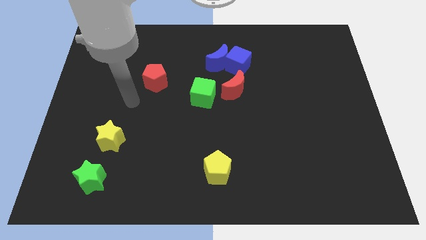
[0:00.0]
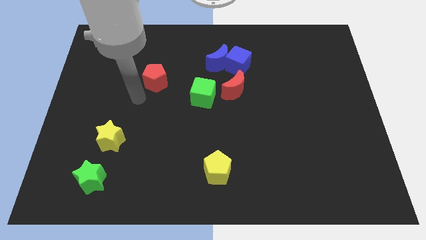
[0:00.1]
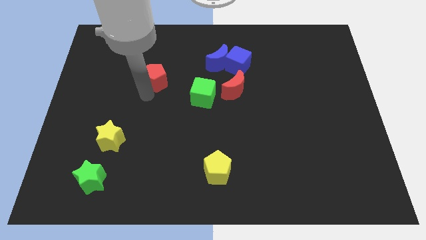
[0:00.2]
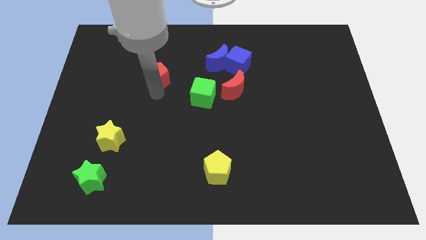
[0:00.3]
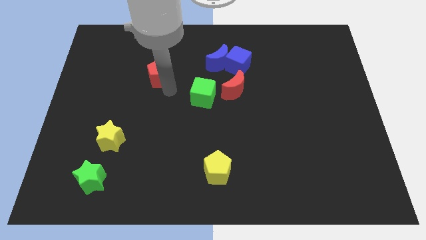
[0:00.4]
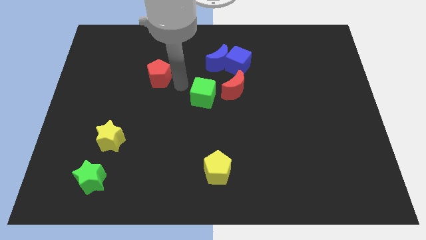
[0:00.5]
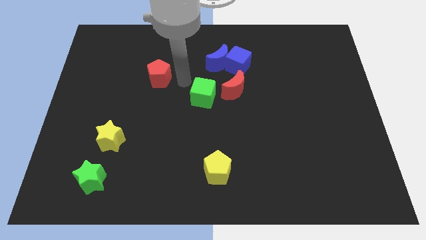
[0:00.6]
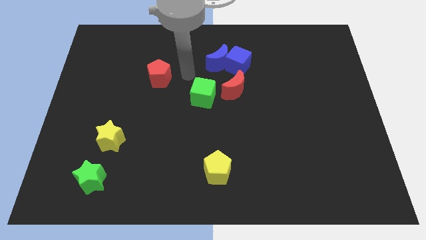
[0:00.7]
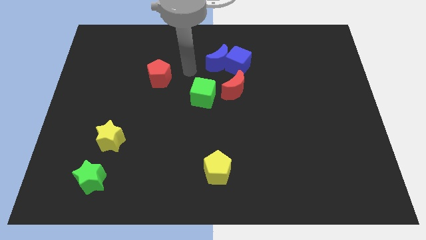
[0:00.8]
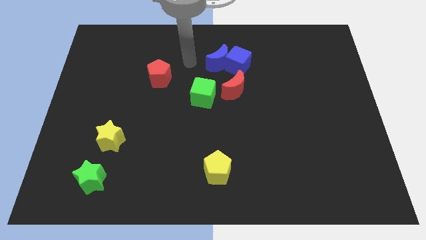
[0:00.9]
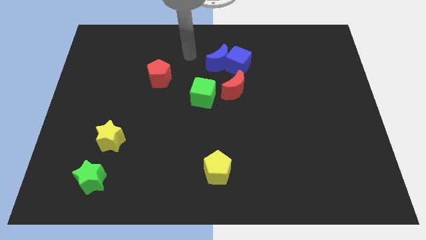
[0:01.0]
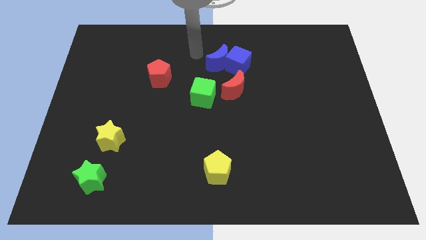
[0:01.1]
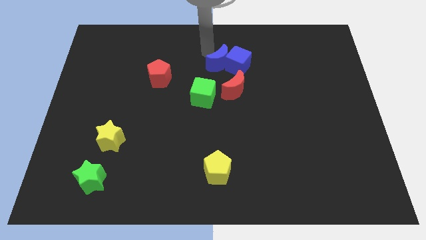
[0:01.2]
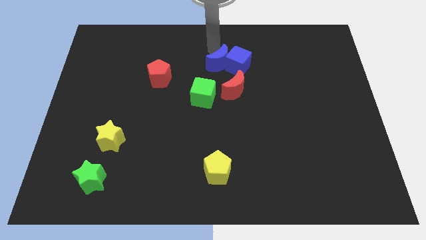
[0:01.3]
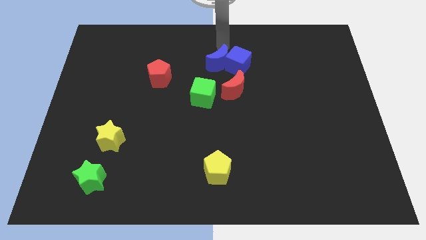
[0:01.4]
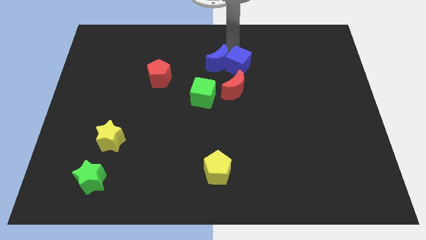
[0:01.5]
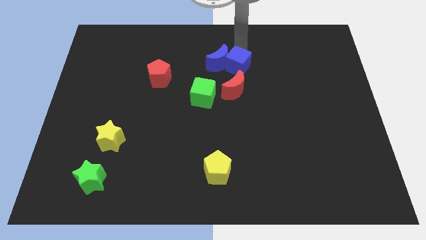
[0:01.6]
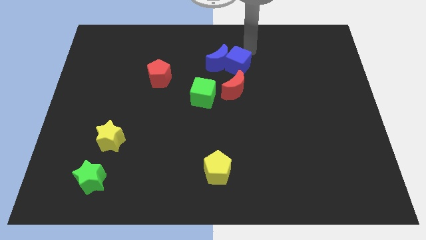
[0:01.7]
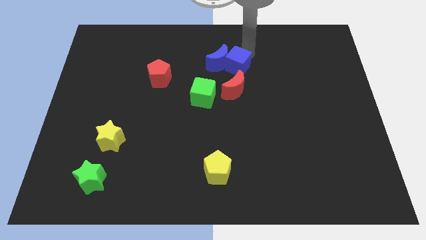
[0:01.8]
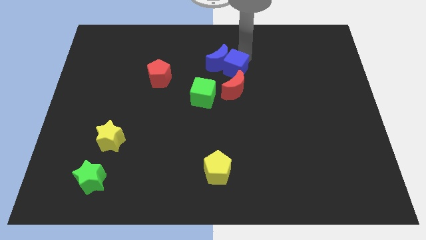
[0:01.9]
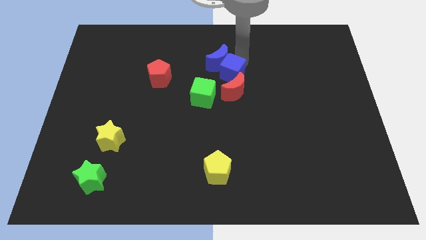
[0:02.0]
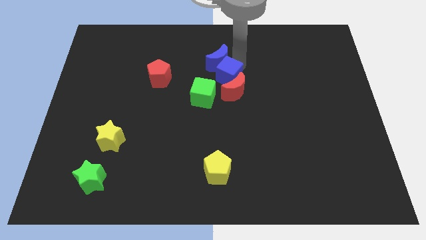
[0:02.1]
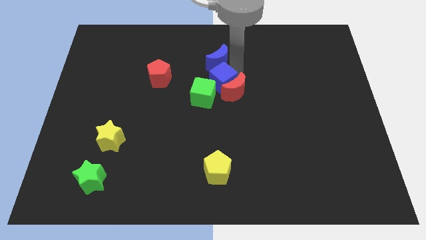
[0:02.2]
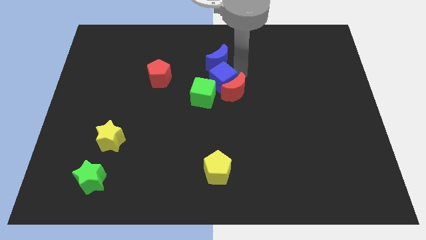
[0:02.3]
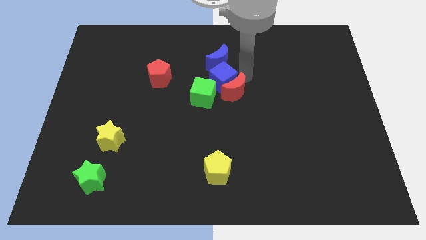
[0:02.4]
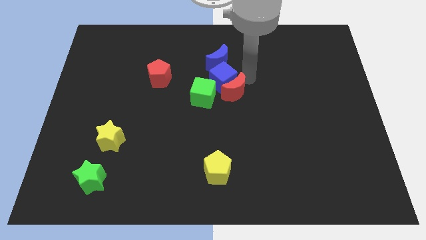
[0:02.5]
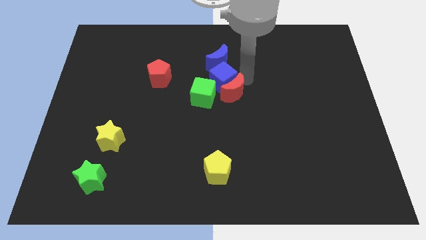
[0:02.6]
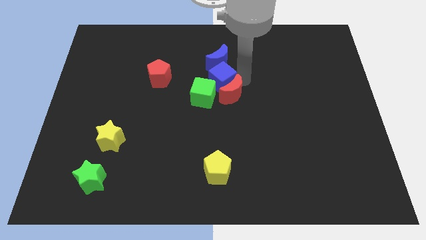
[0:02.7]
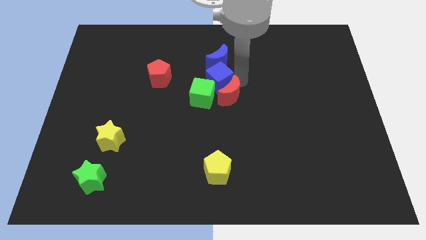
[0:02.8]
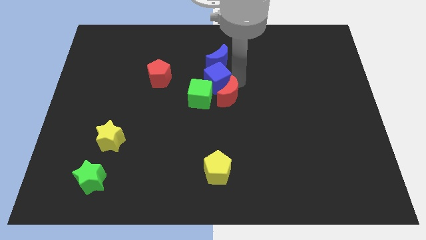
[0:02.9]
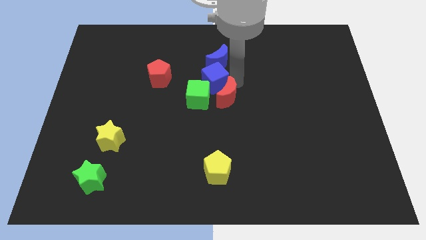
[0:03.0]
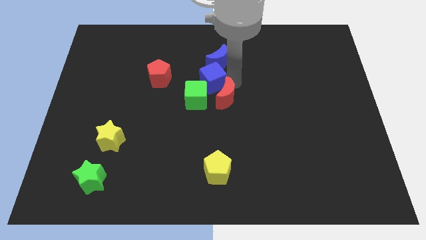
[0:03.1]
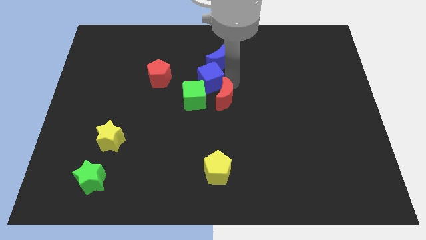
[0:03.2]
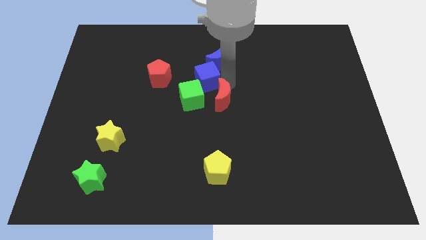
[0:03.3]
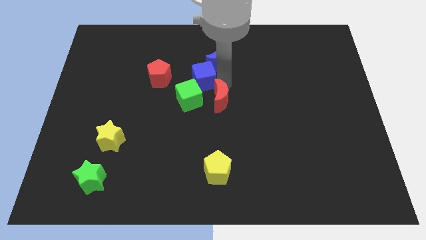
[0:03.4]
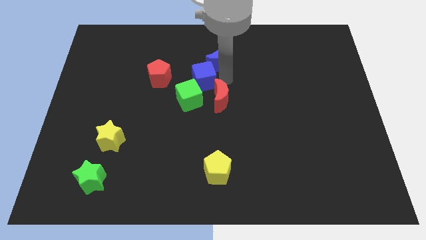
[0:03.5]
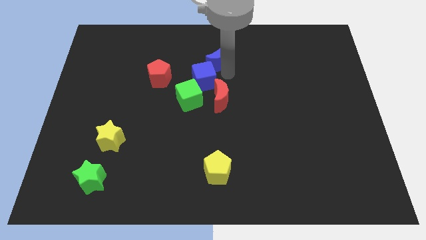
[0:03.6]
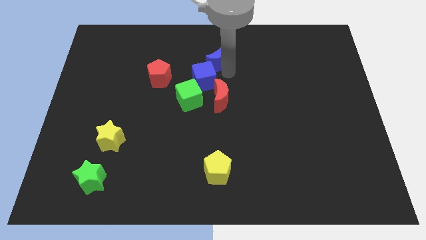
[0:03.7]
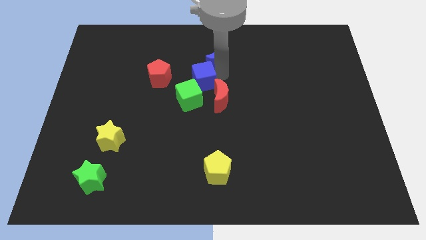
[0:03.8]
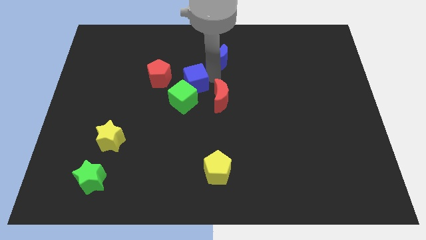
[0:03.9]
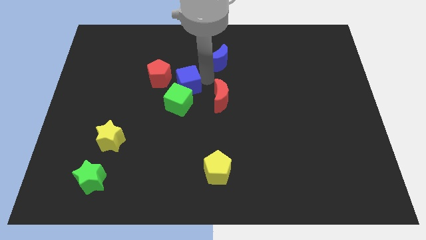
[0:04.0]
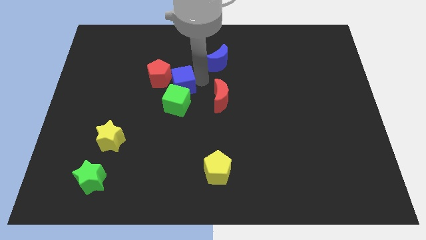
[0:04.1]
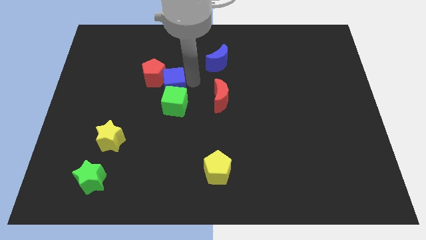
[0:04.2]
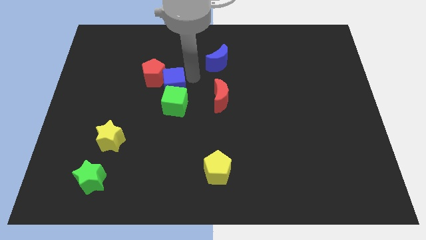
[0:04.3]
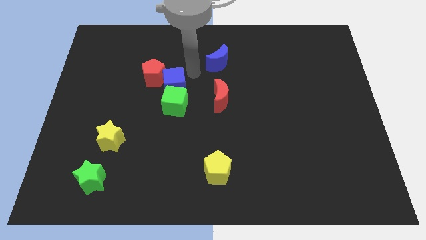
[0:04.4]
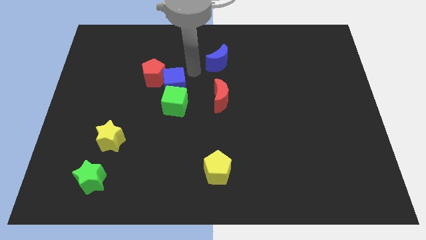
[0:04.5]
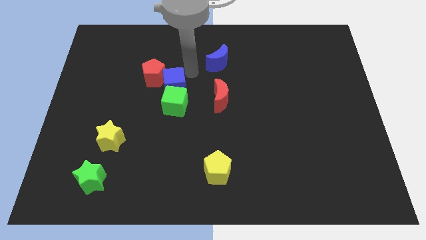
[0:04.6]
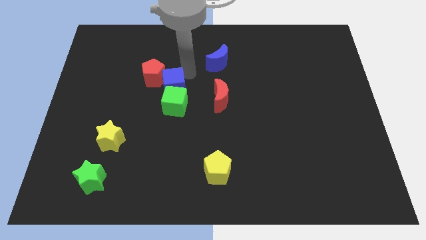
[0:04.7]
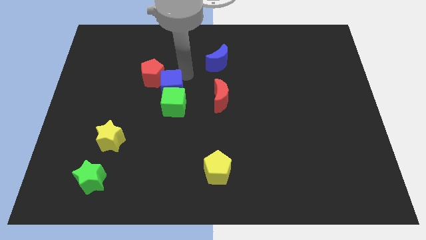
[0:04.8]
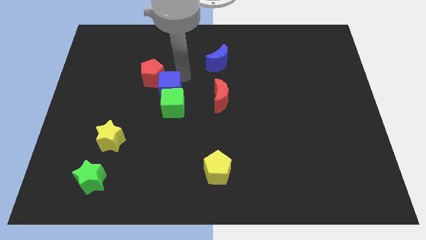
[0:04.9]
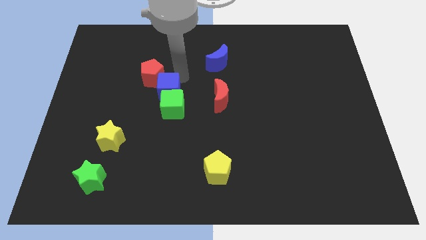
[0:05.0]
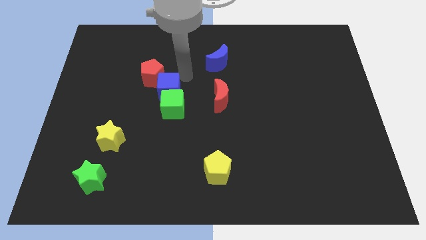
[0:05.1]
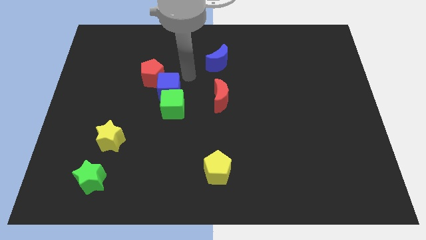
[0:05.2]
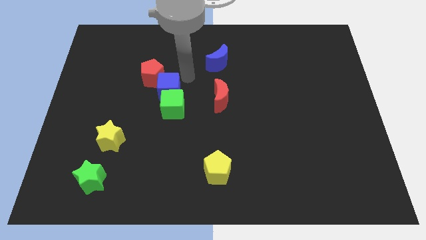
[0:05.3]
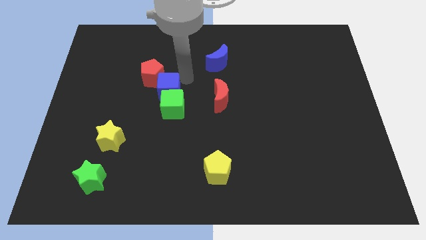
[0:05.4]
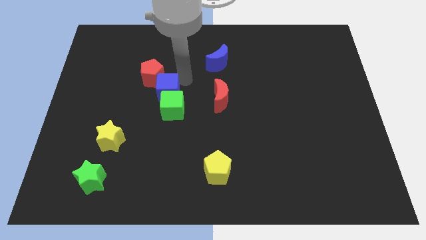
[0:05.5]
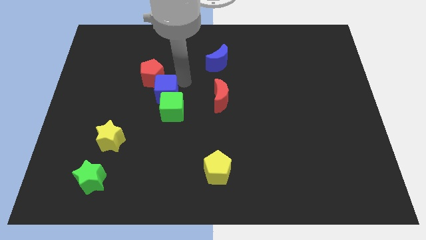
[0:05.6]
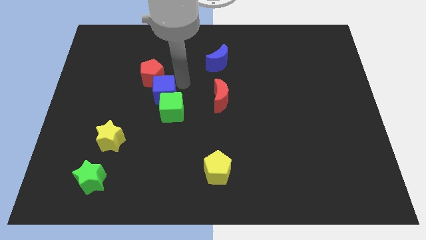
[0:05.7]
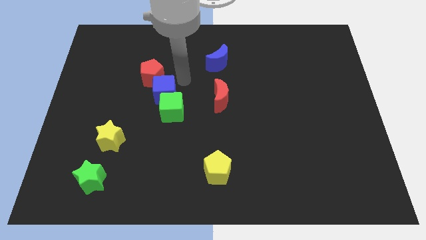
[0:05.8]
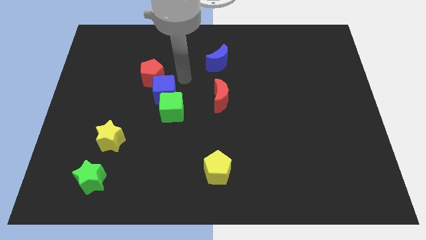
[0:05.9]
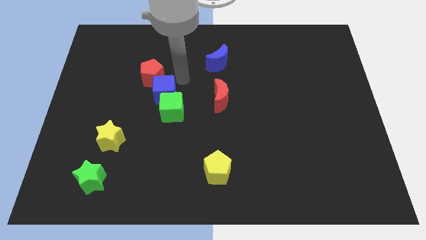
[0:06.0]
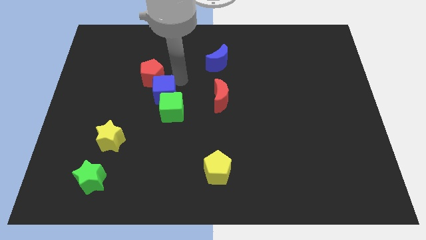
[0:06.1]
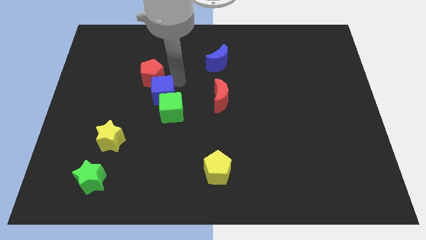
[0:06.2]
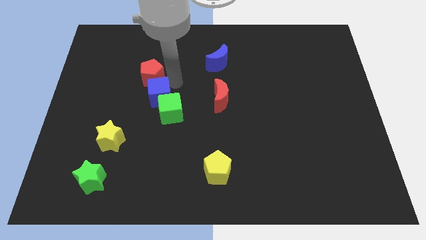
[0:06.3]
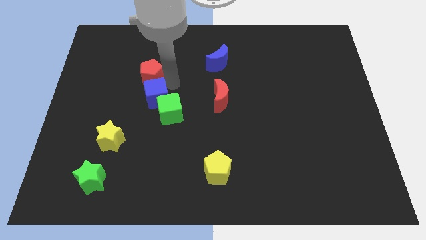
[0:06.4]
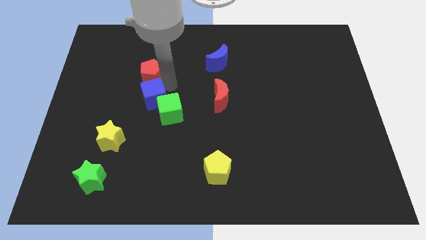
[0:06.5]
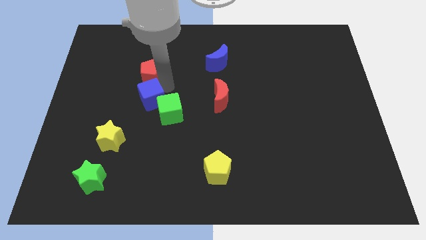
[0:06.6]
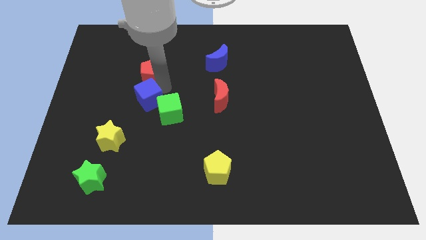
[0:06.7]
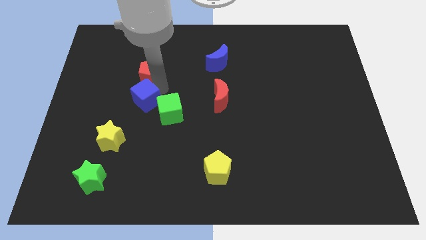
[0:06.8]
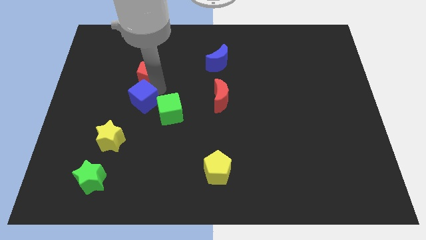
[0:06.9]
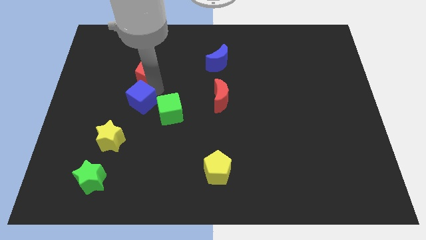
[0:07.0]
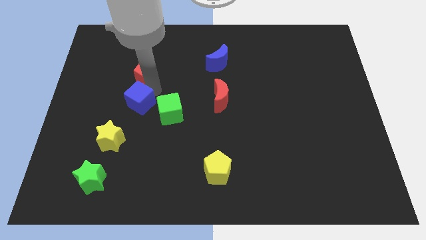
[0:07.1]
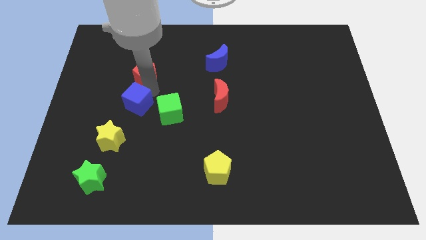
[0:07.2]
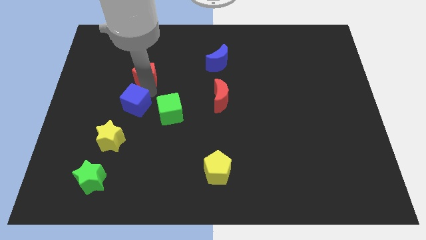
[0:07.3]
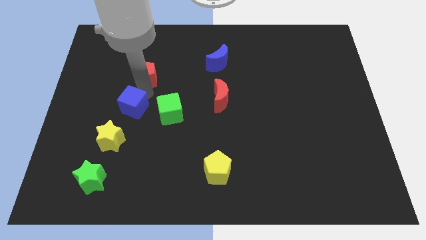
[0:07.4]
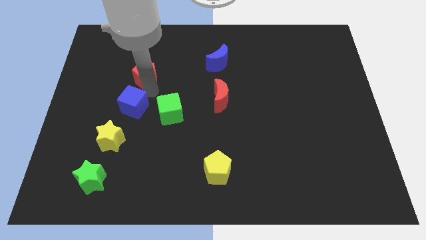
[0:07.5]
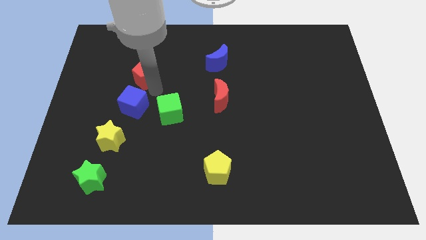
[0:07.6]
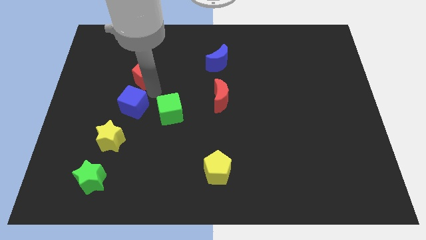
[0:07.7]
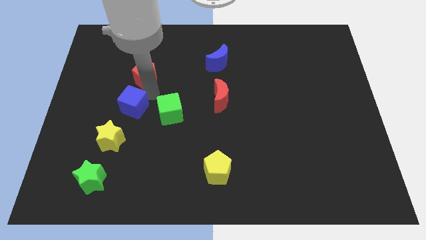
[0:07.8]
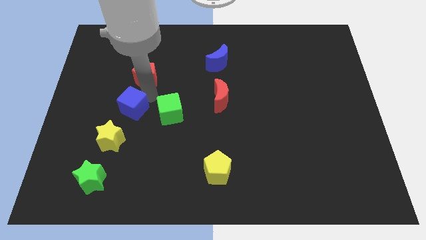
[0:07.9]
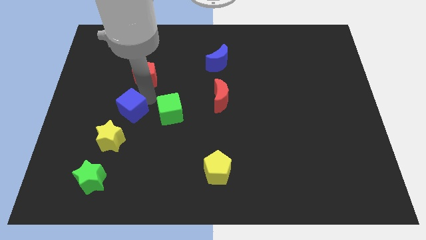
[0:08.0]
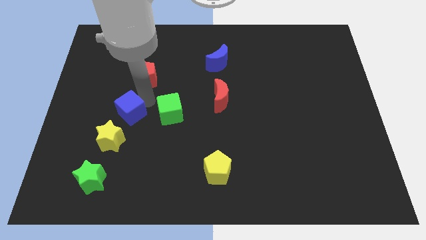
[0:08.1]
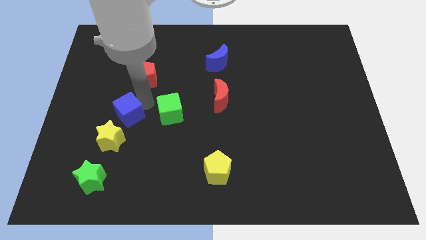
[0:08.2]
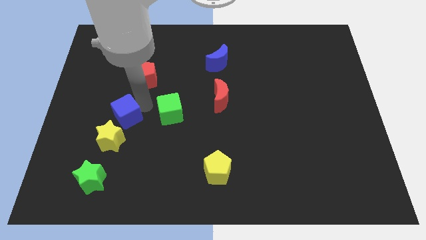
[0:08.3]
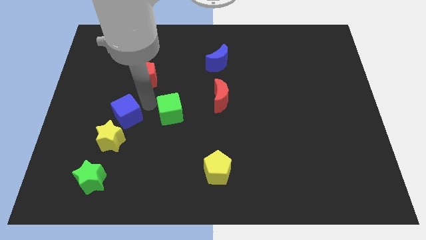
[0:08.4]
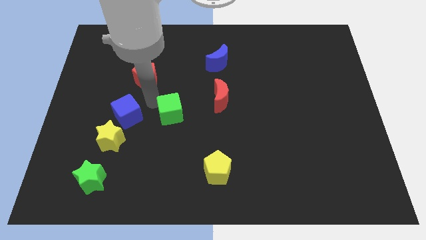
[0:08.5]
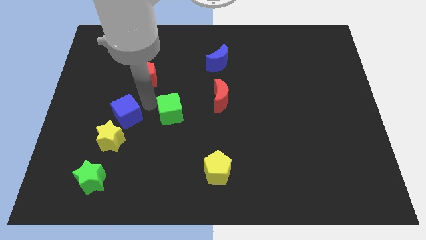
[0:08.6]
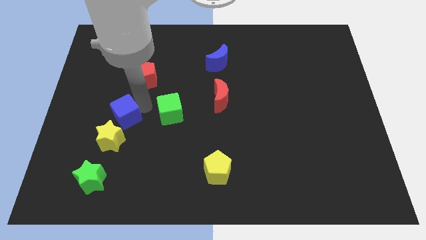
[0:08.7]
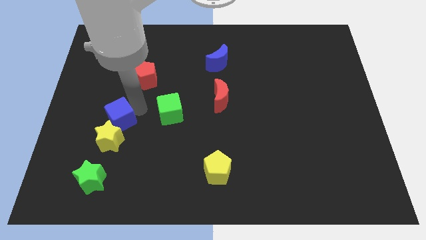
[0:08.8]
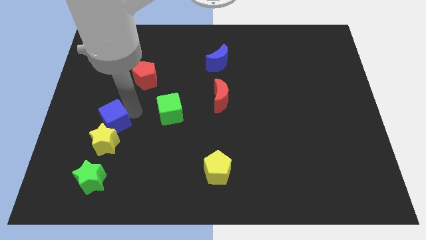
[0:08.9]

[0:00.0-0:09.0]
push the blue cube to the top side of the green star
